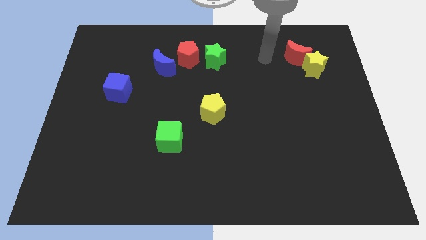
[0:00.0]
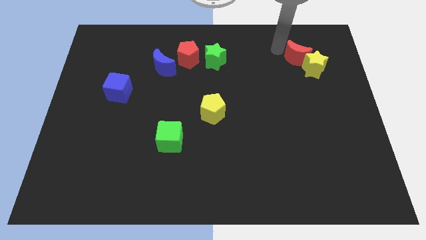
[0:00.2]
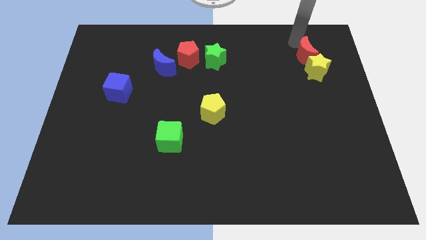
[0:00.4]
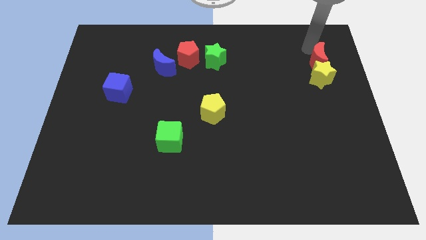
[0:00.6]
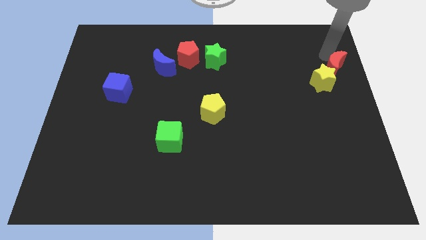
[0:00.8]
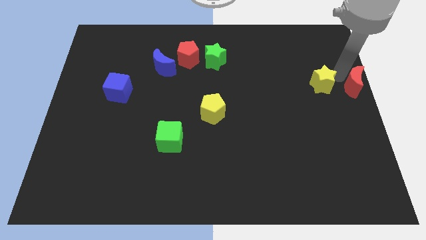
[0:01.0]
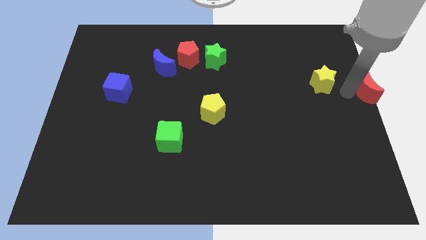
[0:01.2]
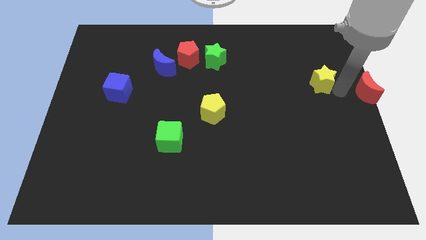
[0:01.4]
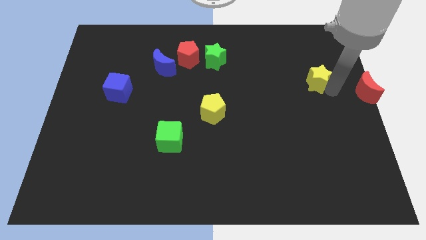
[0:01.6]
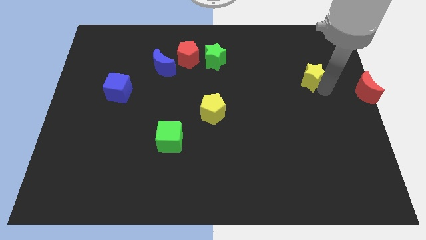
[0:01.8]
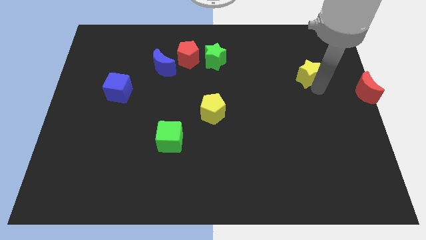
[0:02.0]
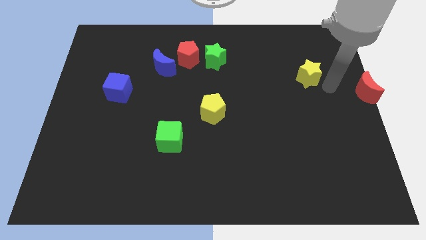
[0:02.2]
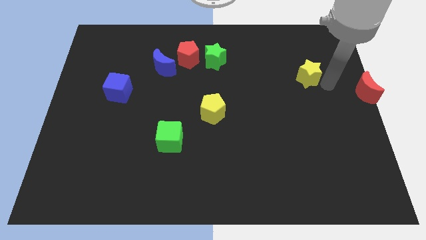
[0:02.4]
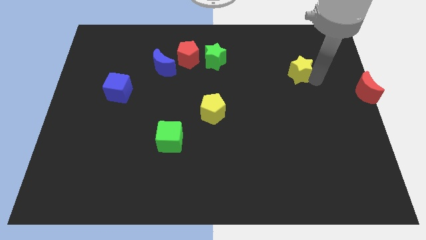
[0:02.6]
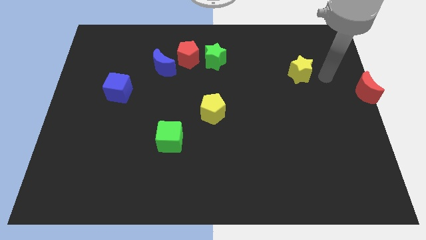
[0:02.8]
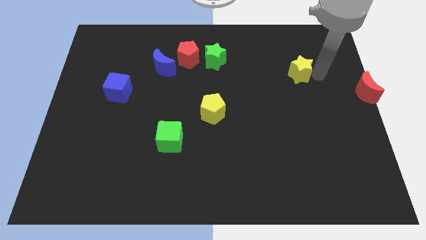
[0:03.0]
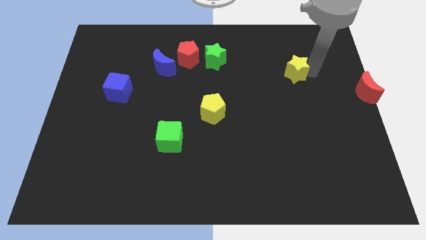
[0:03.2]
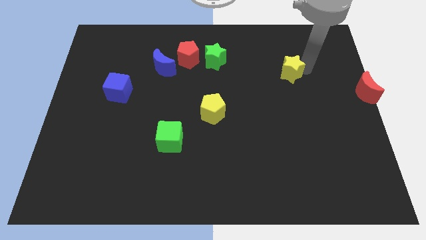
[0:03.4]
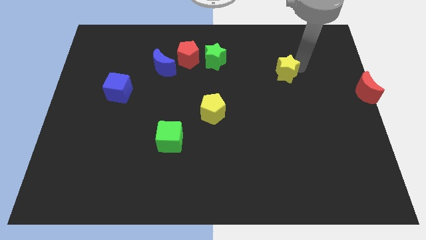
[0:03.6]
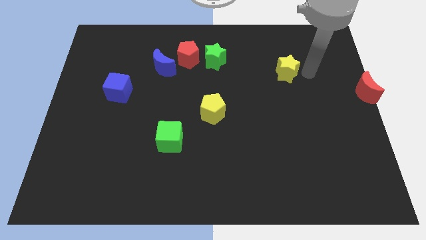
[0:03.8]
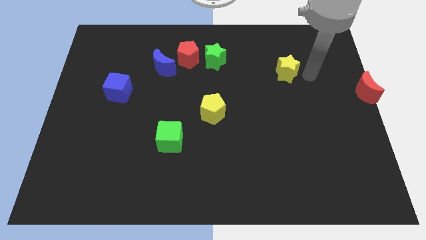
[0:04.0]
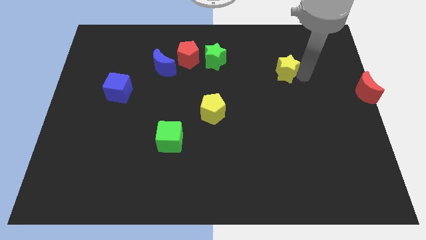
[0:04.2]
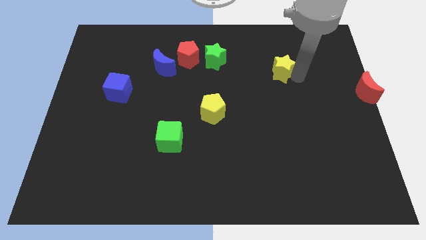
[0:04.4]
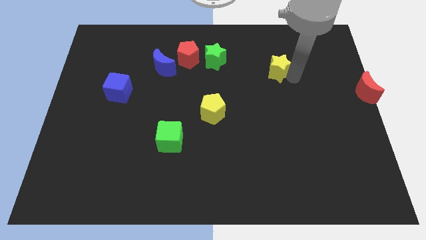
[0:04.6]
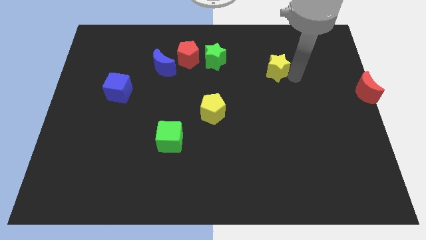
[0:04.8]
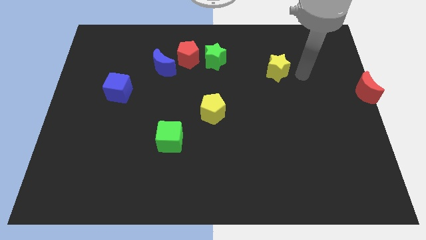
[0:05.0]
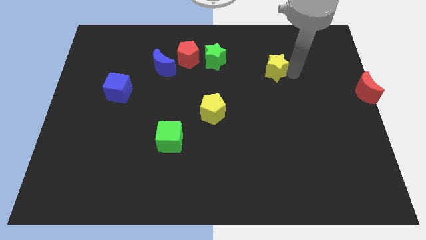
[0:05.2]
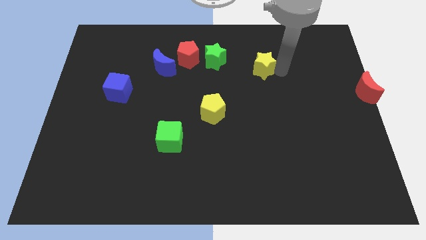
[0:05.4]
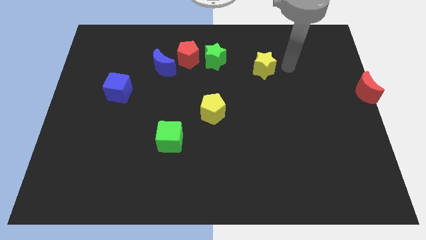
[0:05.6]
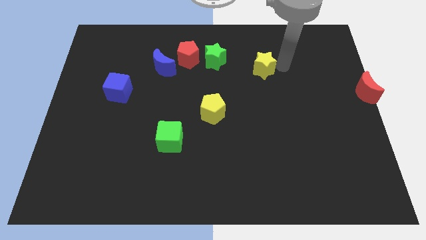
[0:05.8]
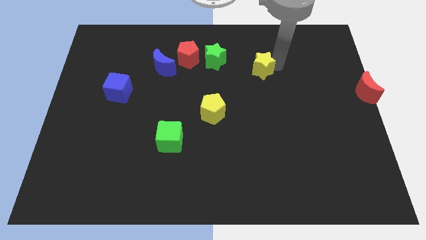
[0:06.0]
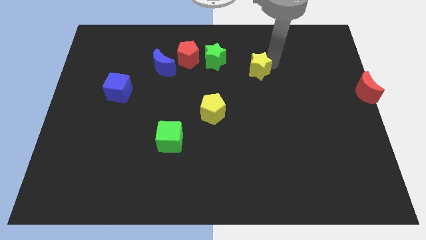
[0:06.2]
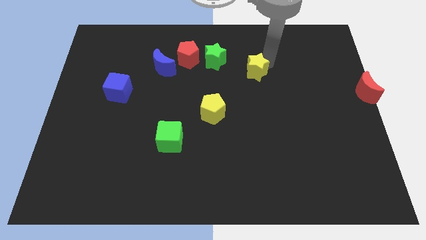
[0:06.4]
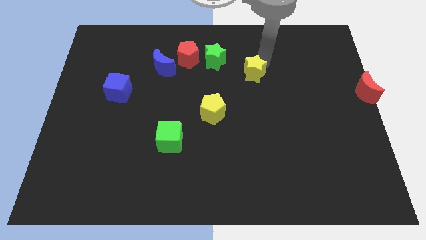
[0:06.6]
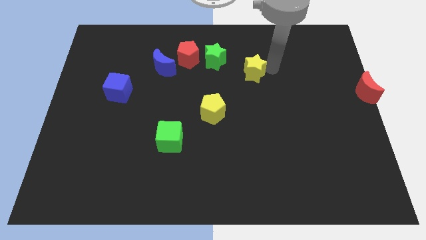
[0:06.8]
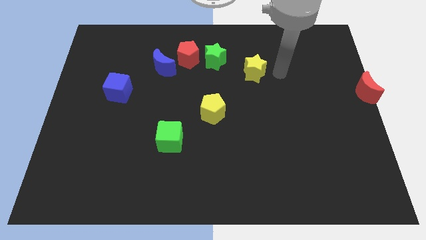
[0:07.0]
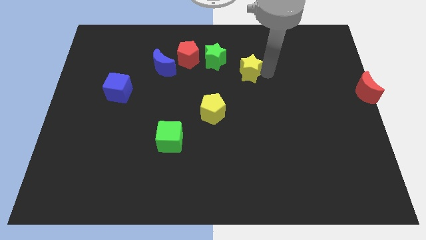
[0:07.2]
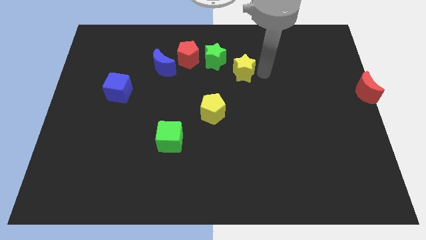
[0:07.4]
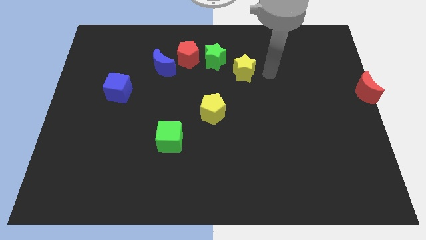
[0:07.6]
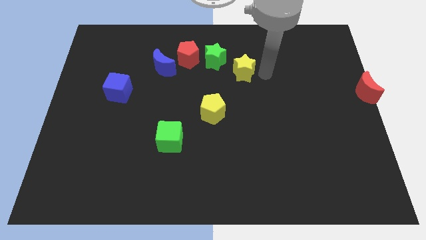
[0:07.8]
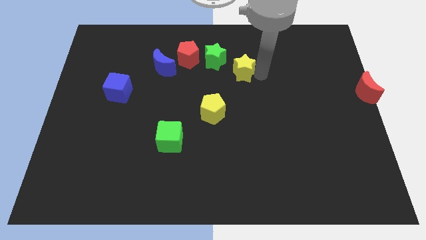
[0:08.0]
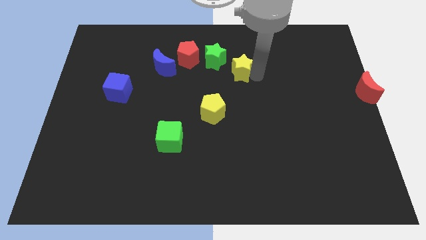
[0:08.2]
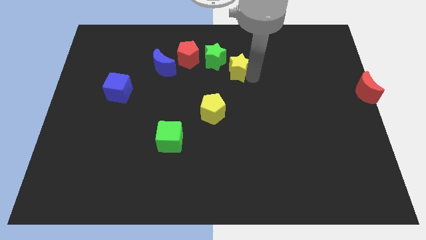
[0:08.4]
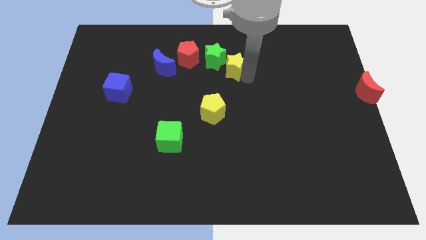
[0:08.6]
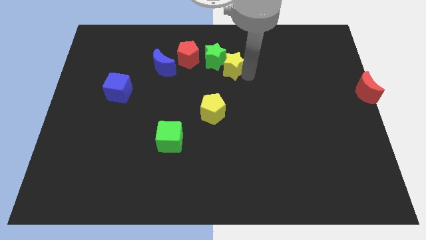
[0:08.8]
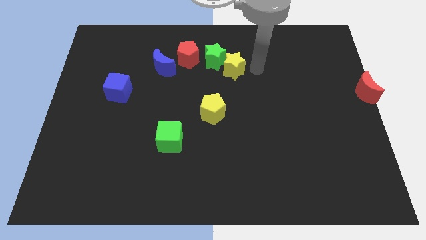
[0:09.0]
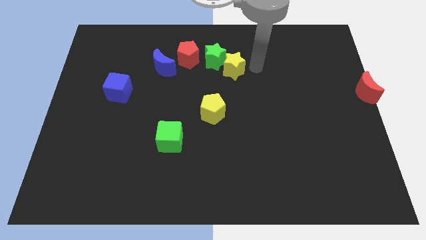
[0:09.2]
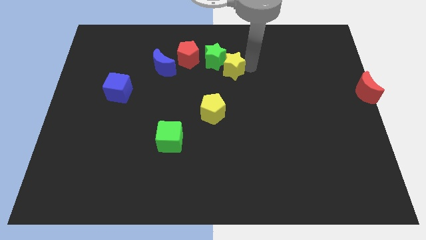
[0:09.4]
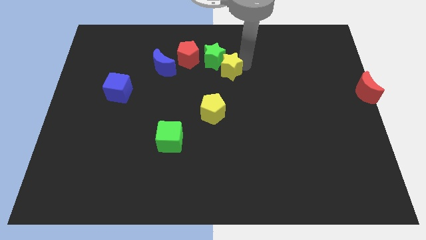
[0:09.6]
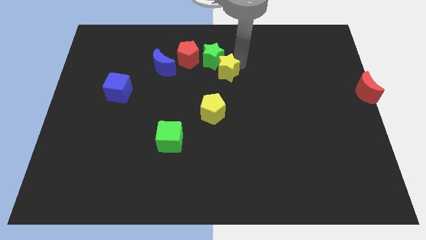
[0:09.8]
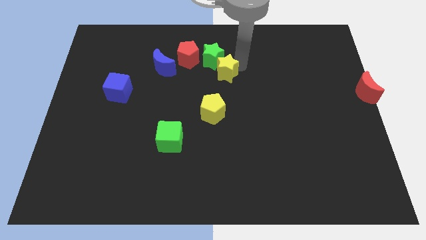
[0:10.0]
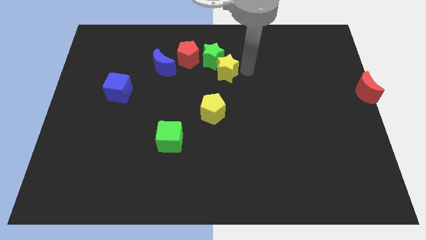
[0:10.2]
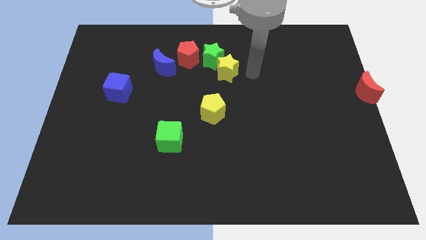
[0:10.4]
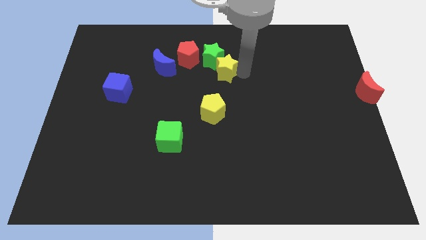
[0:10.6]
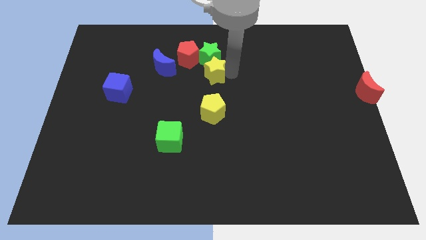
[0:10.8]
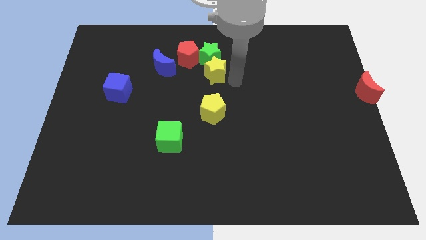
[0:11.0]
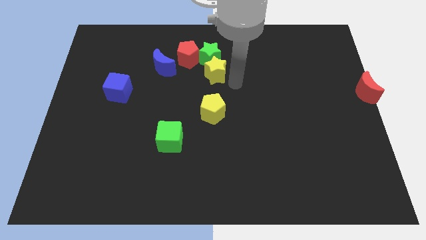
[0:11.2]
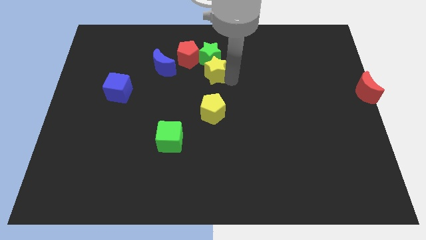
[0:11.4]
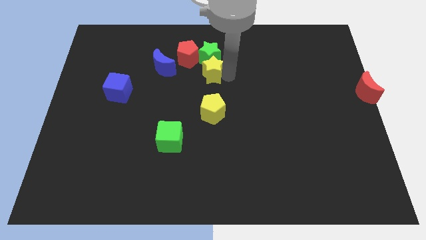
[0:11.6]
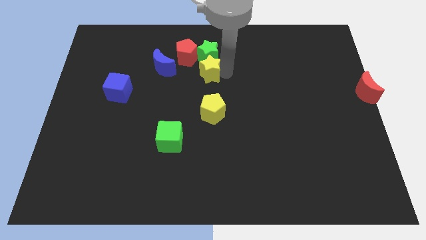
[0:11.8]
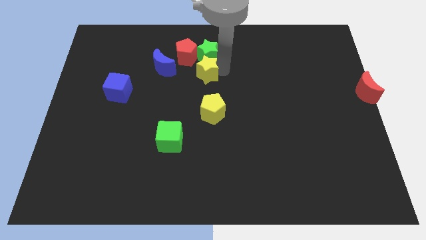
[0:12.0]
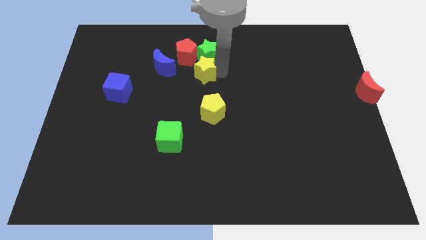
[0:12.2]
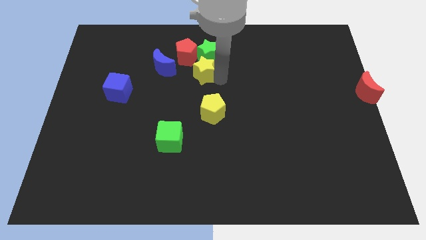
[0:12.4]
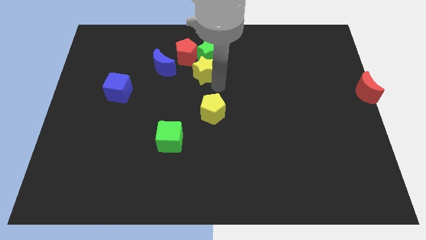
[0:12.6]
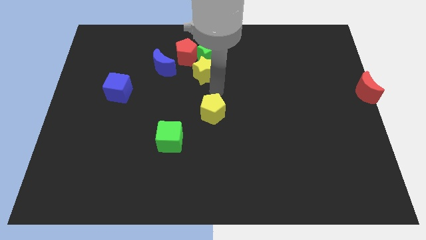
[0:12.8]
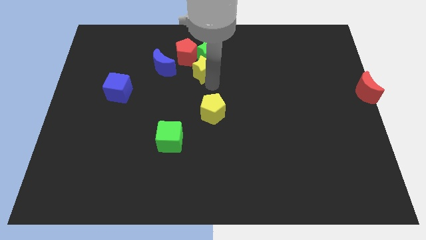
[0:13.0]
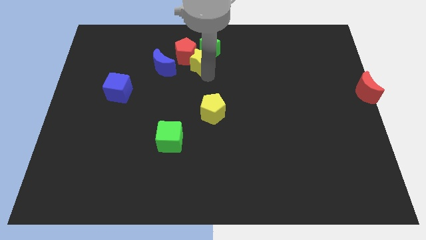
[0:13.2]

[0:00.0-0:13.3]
move the yellow star close to the red pentagon

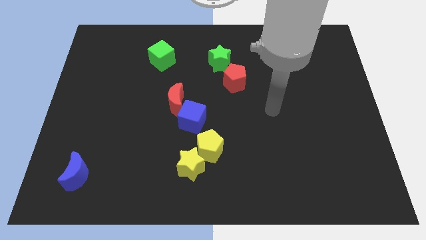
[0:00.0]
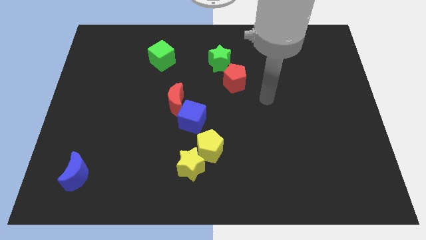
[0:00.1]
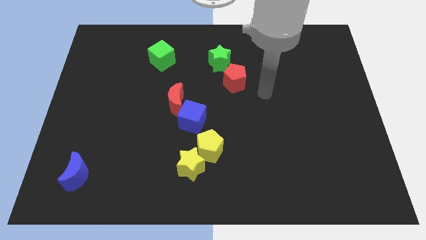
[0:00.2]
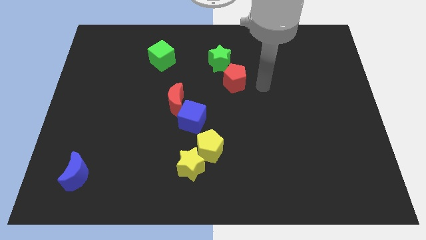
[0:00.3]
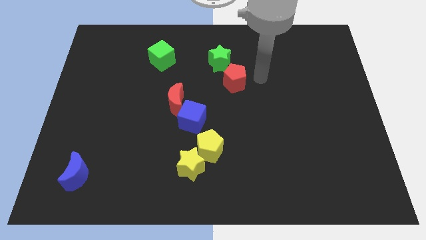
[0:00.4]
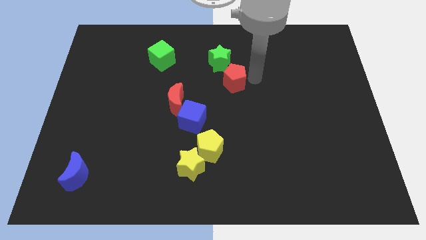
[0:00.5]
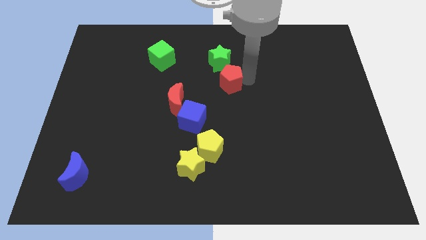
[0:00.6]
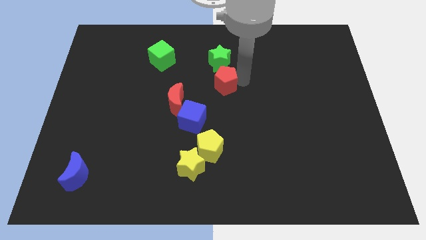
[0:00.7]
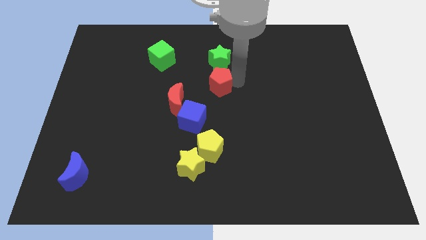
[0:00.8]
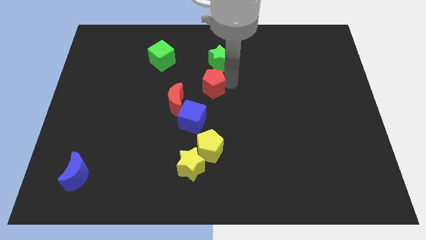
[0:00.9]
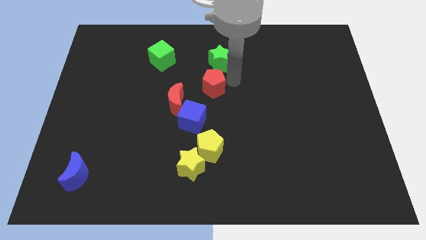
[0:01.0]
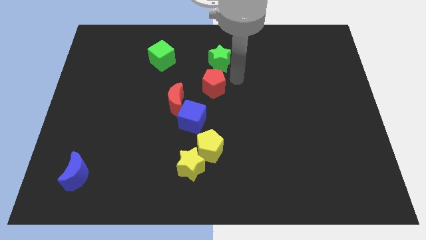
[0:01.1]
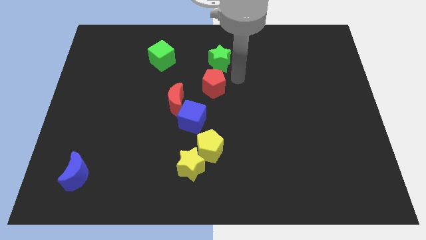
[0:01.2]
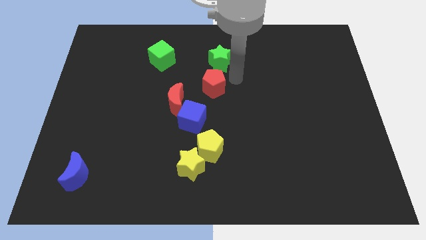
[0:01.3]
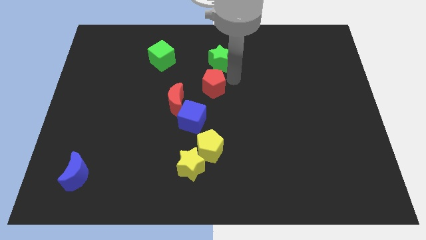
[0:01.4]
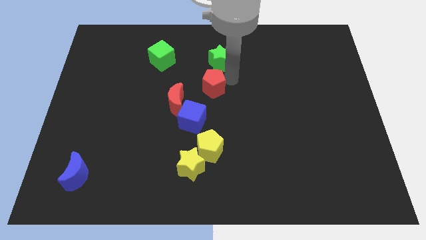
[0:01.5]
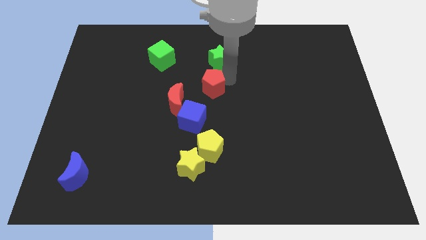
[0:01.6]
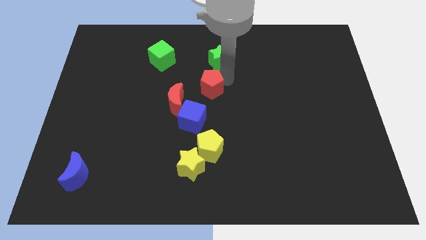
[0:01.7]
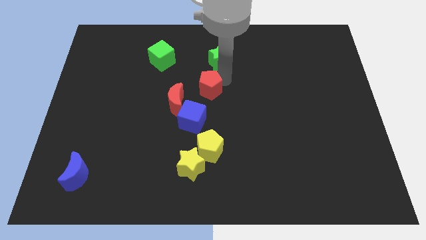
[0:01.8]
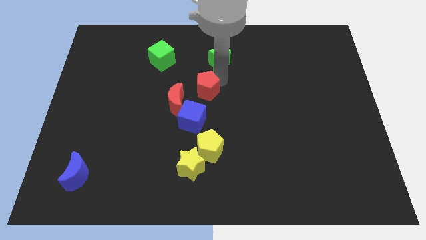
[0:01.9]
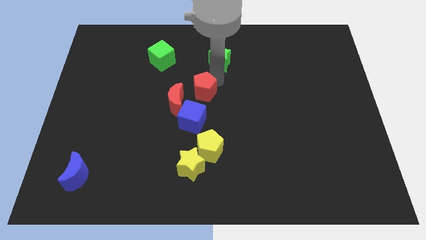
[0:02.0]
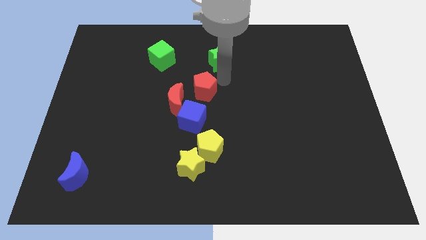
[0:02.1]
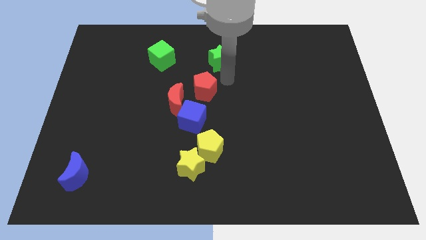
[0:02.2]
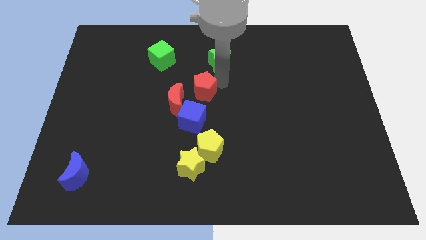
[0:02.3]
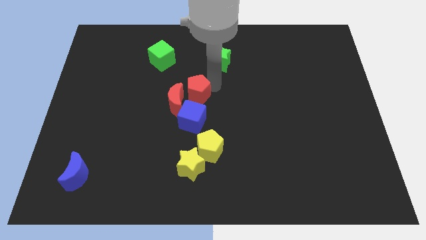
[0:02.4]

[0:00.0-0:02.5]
push the red pentagon to the red moon
